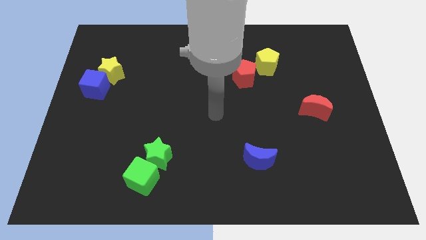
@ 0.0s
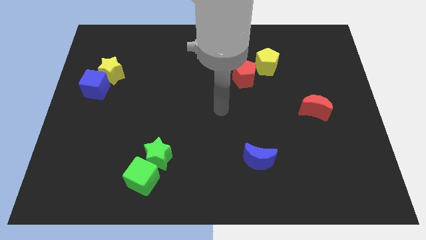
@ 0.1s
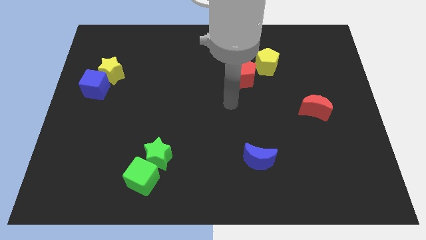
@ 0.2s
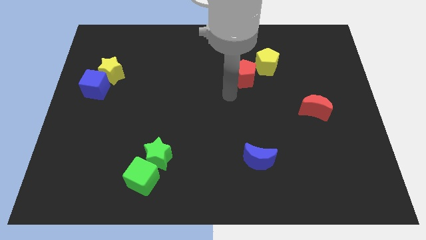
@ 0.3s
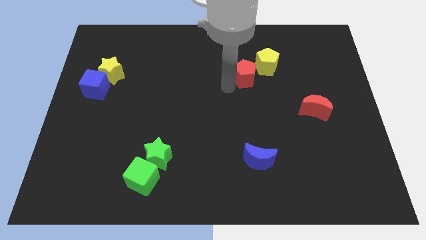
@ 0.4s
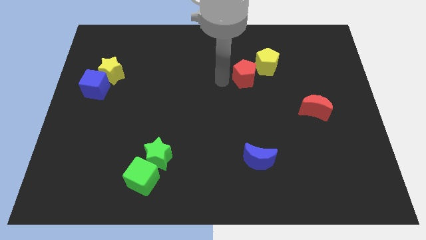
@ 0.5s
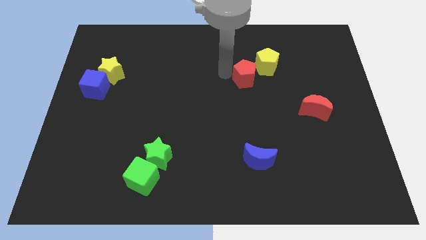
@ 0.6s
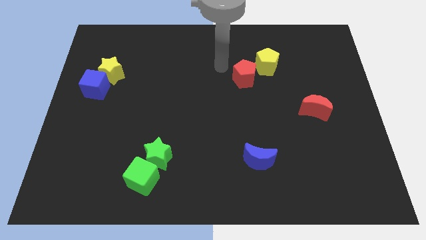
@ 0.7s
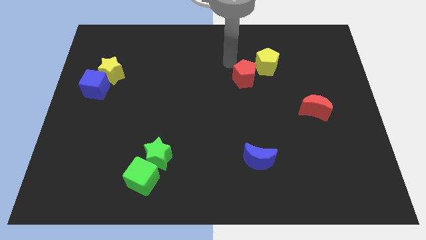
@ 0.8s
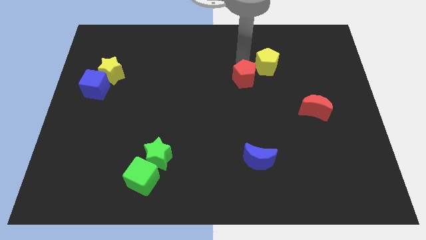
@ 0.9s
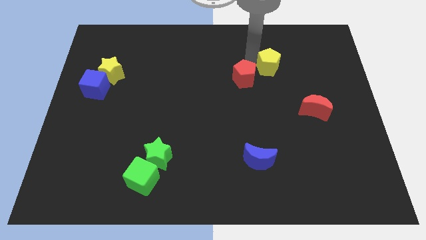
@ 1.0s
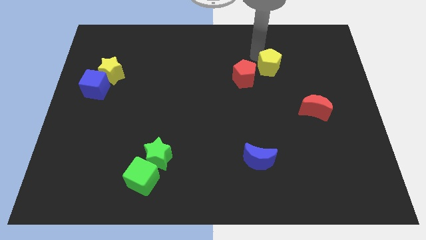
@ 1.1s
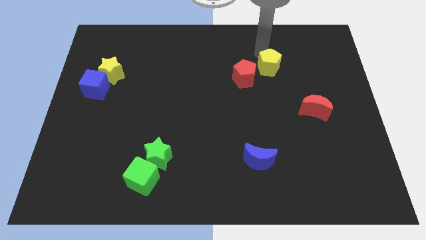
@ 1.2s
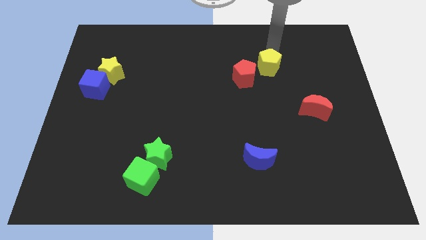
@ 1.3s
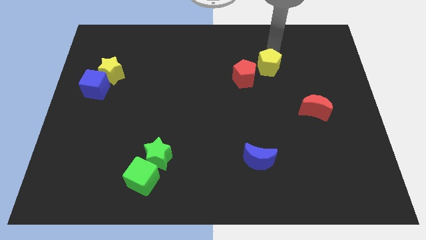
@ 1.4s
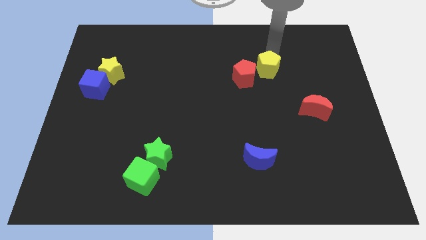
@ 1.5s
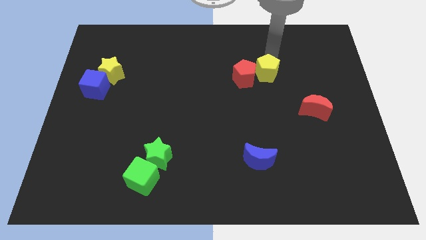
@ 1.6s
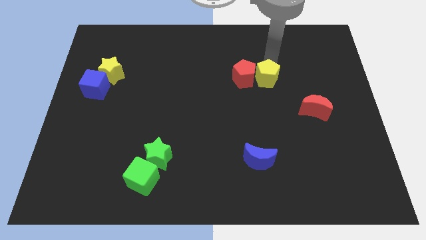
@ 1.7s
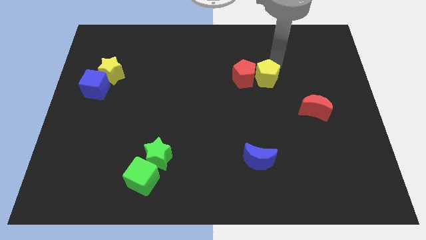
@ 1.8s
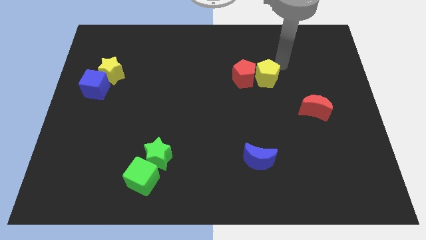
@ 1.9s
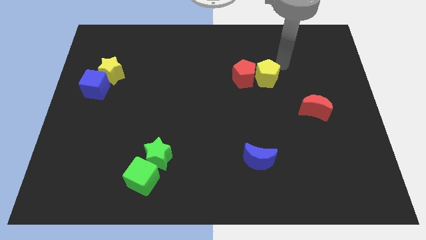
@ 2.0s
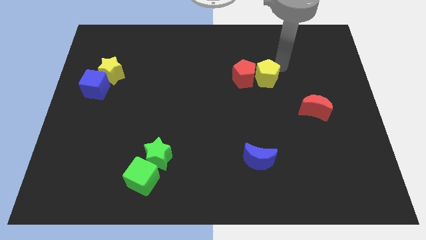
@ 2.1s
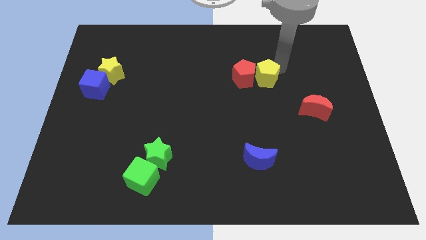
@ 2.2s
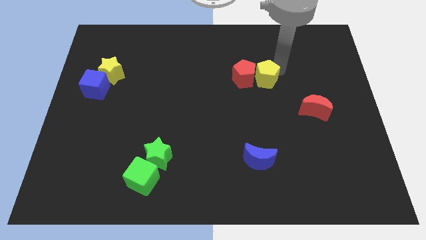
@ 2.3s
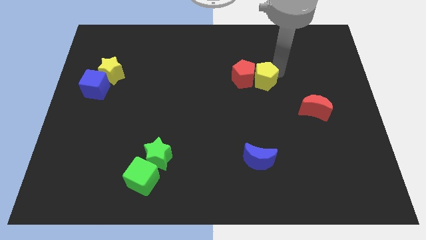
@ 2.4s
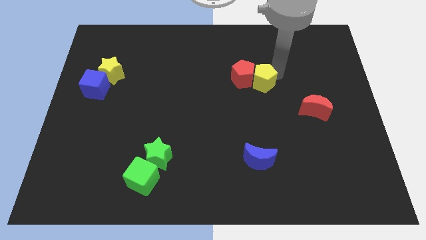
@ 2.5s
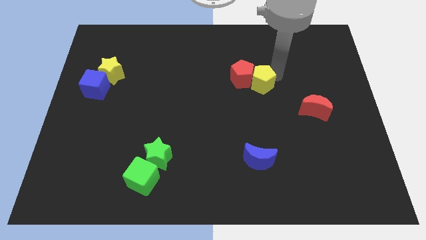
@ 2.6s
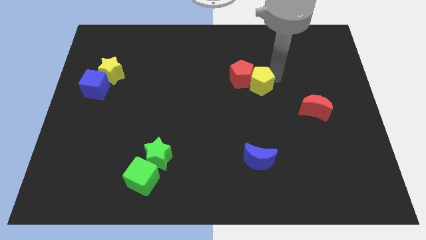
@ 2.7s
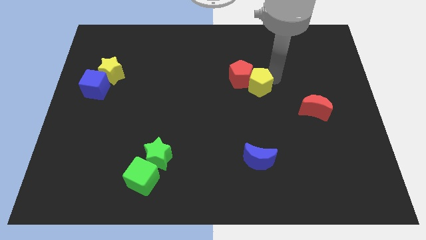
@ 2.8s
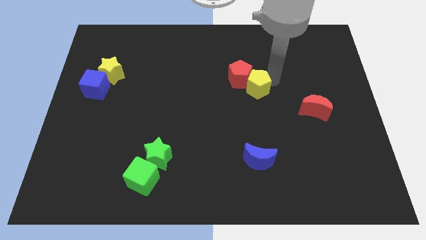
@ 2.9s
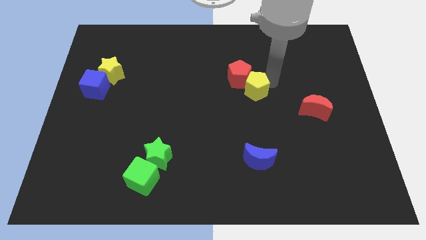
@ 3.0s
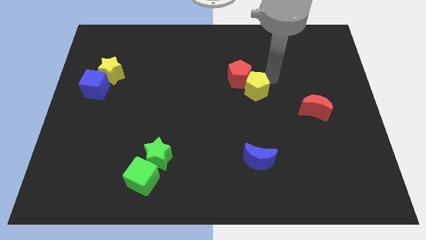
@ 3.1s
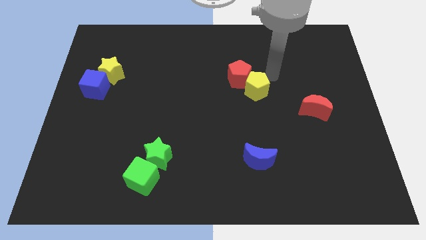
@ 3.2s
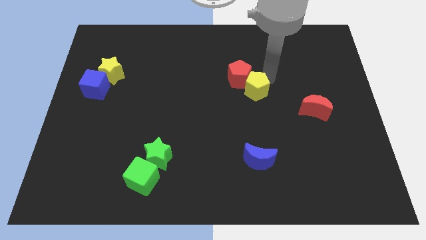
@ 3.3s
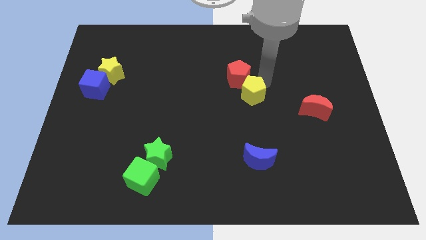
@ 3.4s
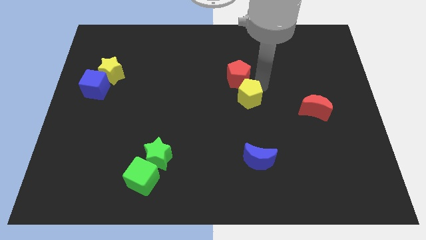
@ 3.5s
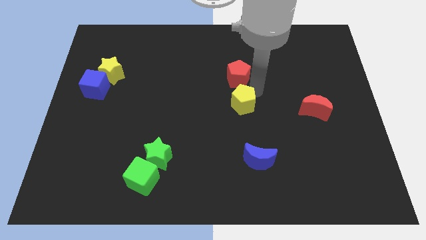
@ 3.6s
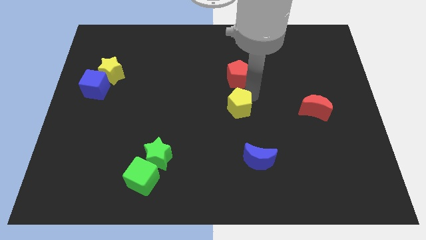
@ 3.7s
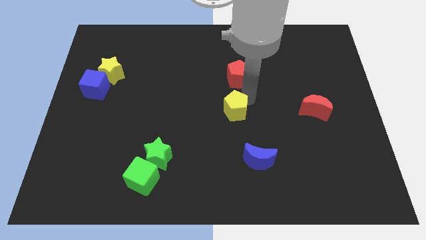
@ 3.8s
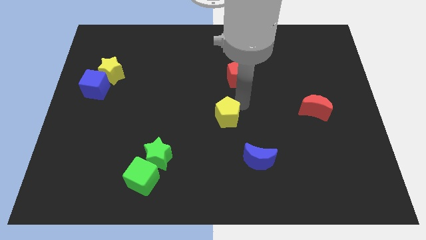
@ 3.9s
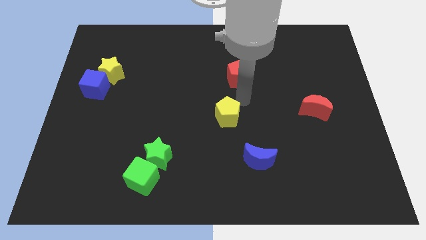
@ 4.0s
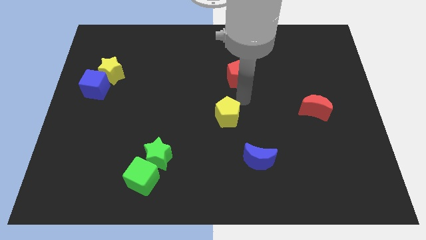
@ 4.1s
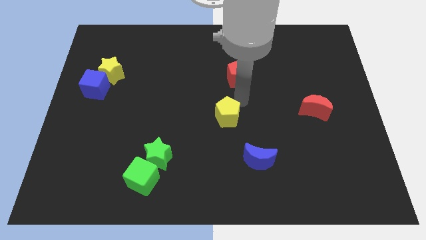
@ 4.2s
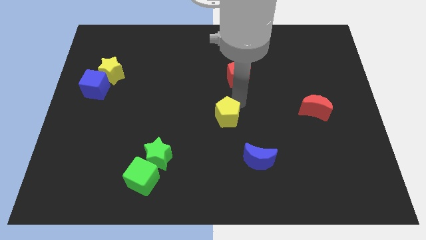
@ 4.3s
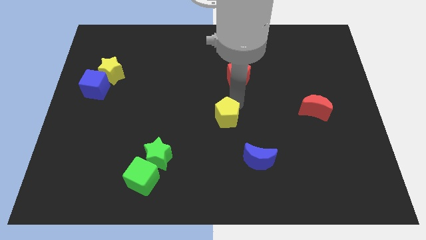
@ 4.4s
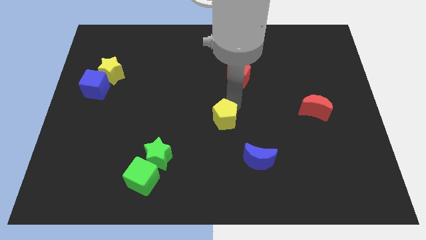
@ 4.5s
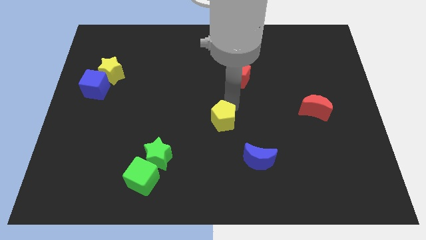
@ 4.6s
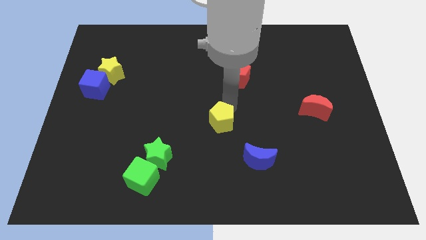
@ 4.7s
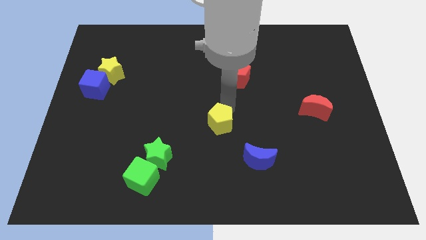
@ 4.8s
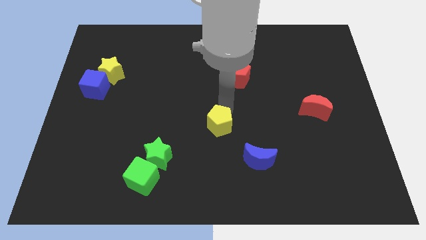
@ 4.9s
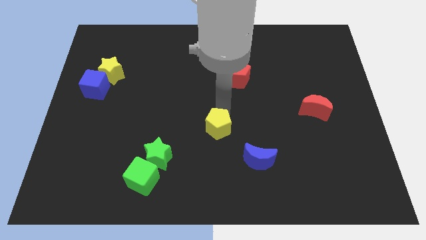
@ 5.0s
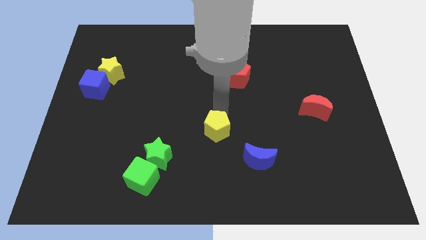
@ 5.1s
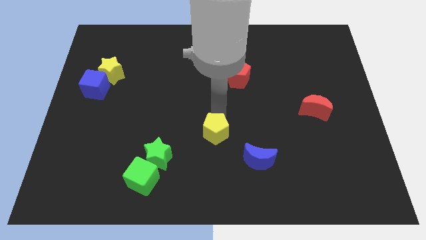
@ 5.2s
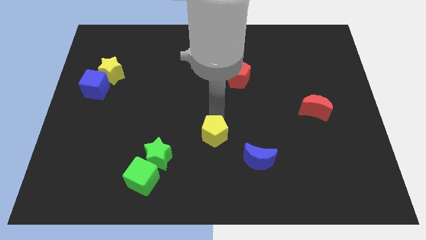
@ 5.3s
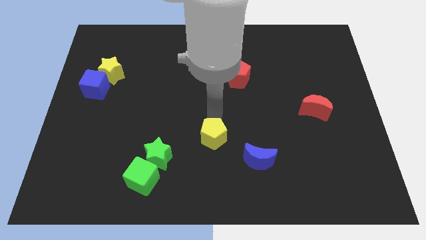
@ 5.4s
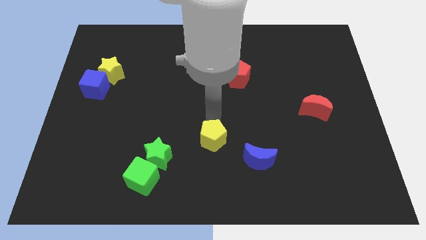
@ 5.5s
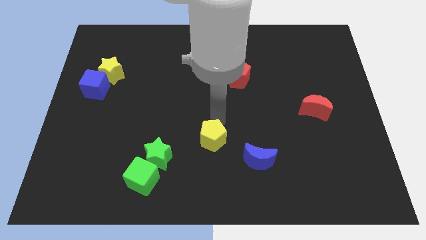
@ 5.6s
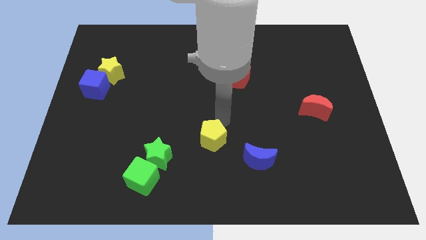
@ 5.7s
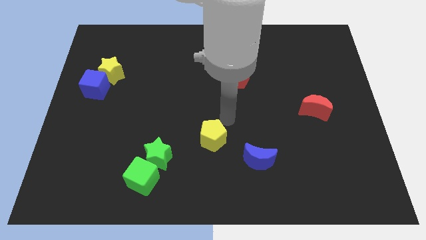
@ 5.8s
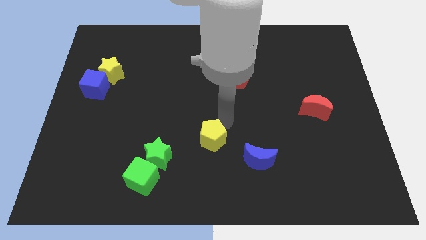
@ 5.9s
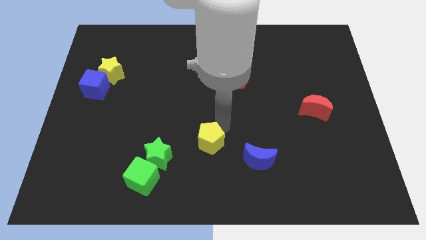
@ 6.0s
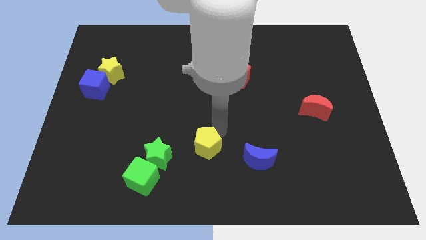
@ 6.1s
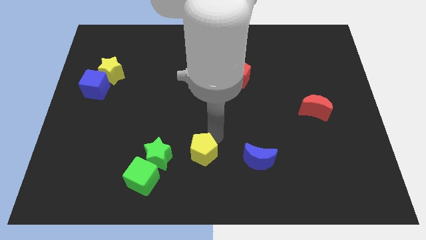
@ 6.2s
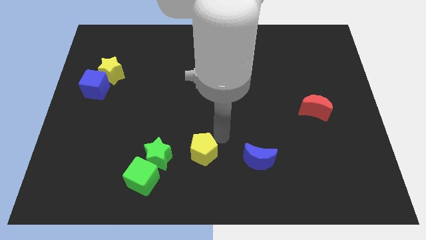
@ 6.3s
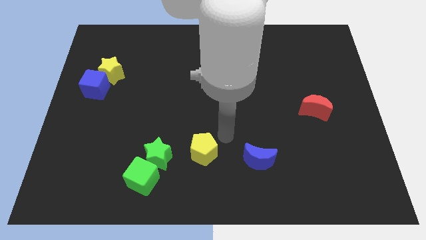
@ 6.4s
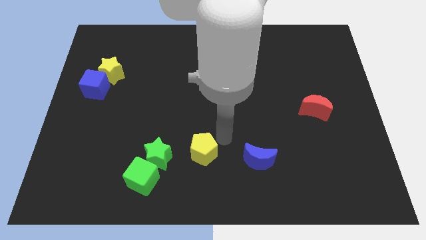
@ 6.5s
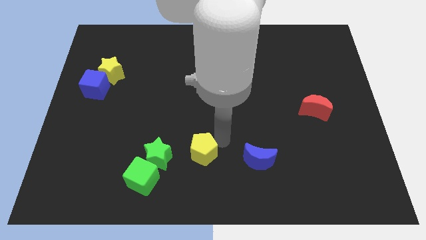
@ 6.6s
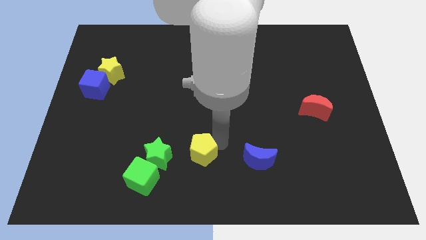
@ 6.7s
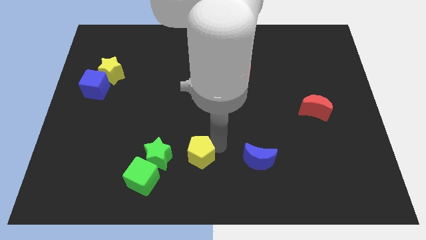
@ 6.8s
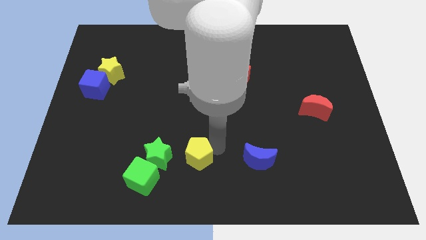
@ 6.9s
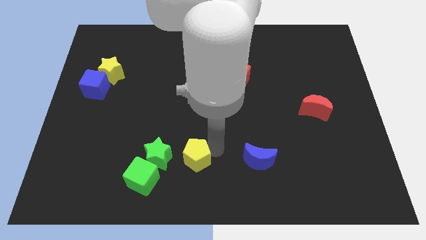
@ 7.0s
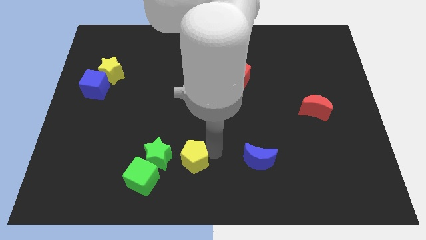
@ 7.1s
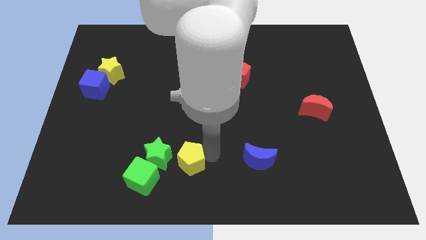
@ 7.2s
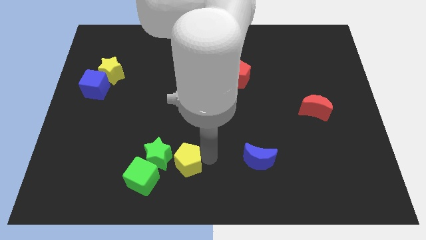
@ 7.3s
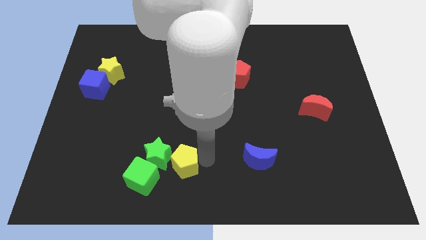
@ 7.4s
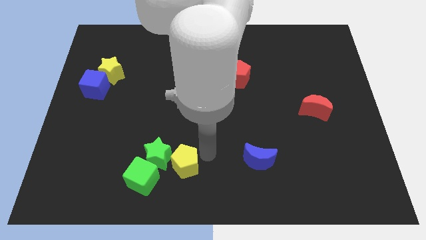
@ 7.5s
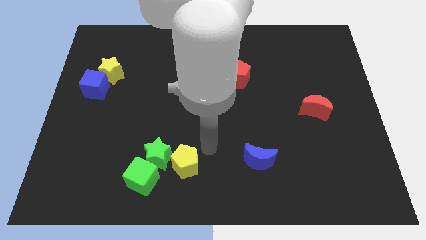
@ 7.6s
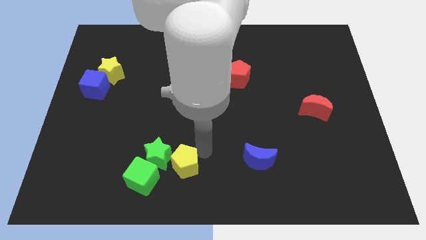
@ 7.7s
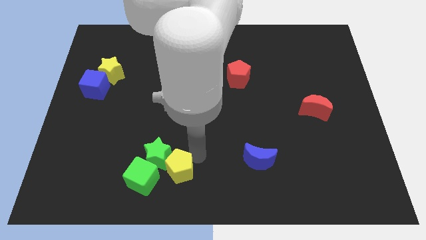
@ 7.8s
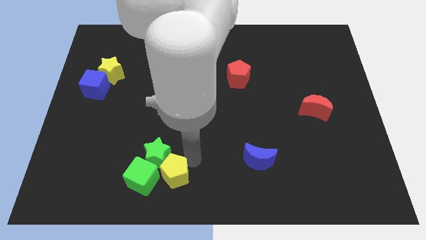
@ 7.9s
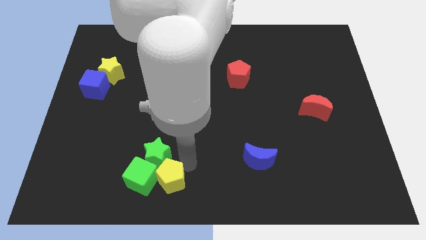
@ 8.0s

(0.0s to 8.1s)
slide the yellow pentagon close to the green cube

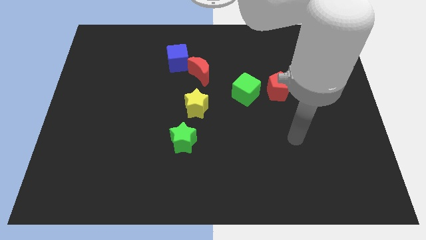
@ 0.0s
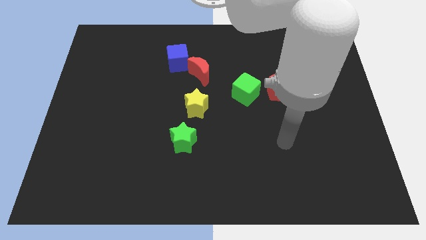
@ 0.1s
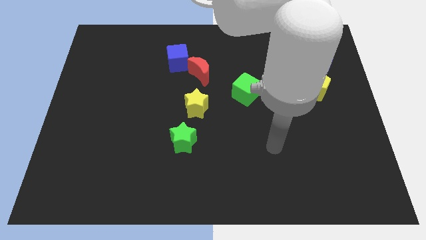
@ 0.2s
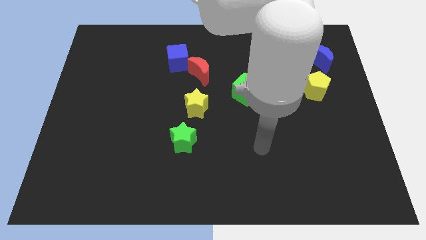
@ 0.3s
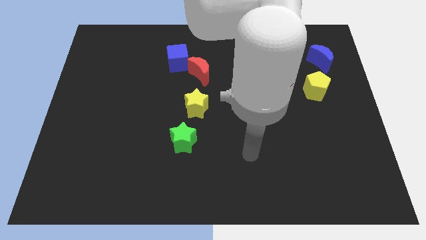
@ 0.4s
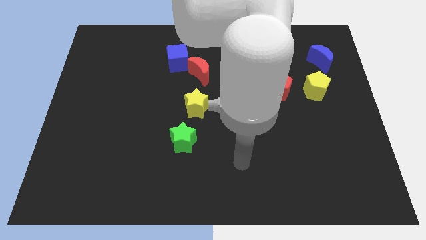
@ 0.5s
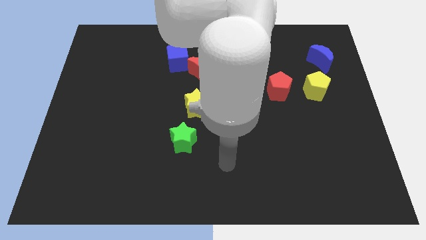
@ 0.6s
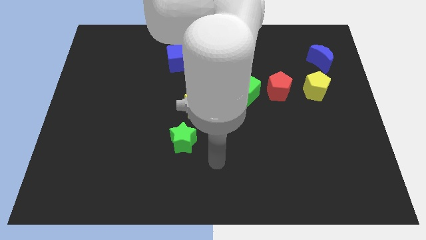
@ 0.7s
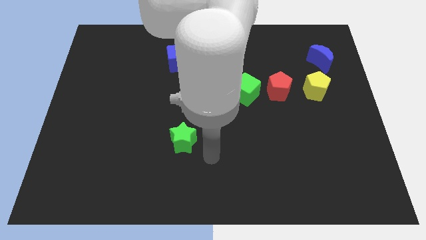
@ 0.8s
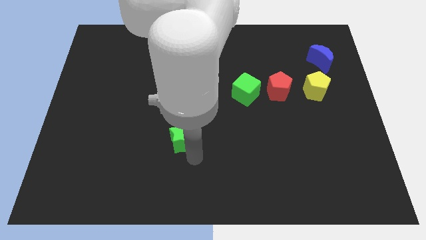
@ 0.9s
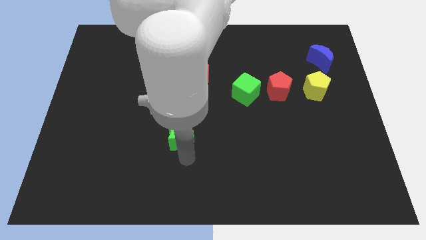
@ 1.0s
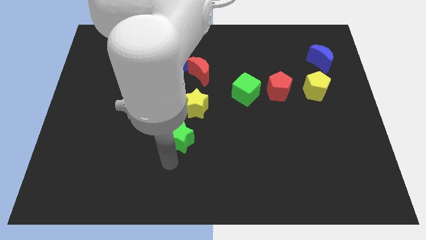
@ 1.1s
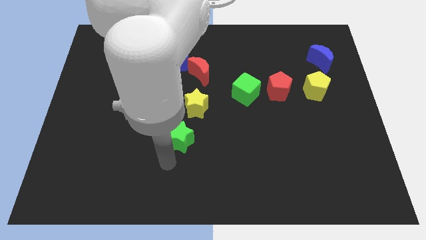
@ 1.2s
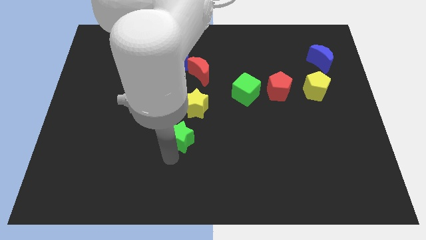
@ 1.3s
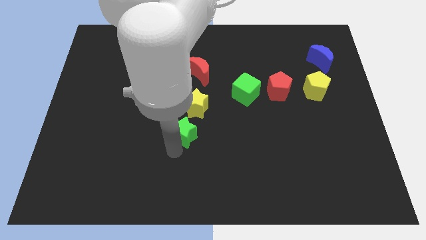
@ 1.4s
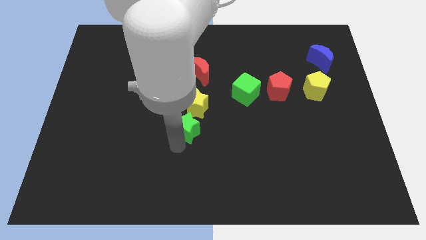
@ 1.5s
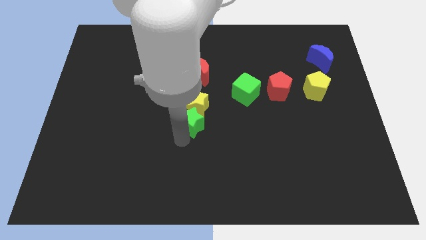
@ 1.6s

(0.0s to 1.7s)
move the green star next to the yellow star
